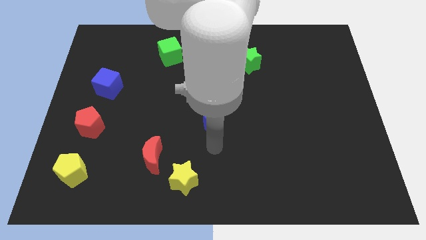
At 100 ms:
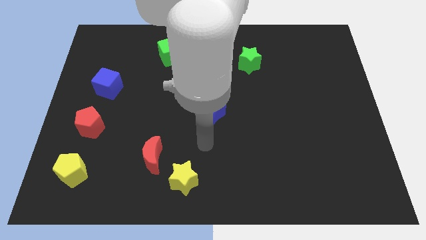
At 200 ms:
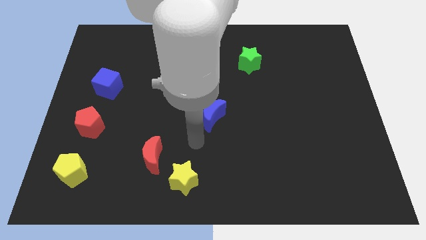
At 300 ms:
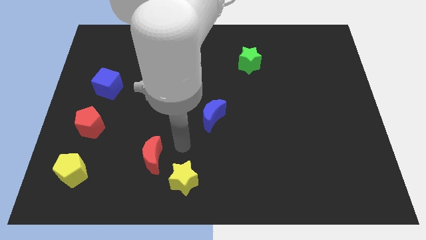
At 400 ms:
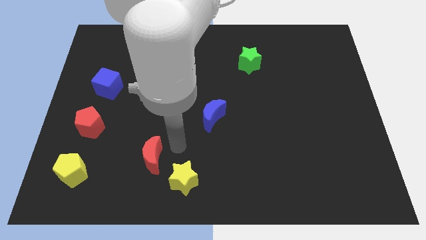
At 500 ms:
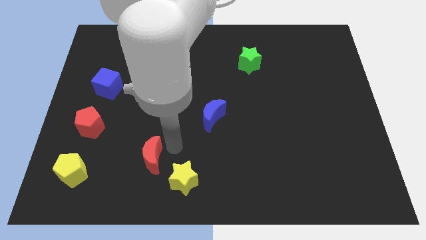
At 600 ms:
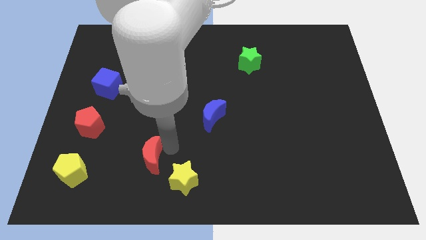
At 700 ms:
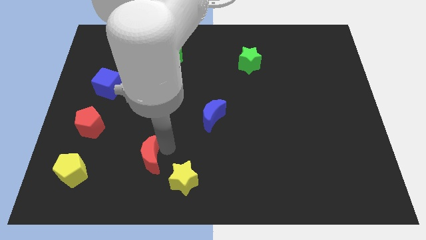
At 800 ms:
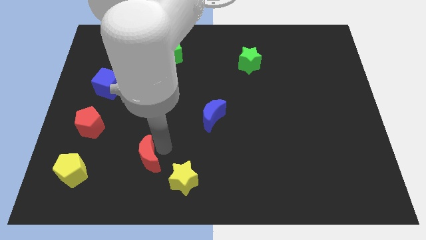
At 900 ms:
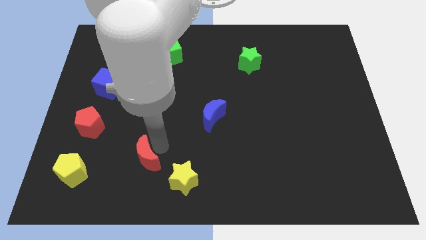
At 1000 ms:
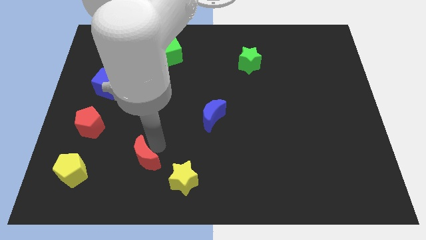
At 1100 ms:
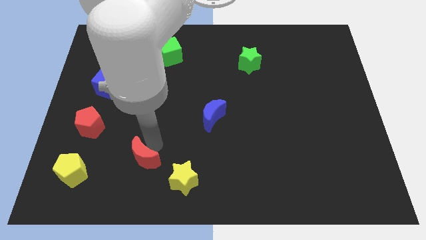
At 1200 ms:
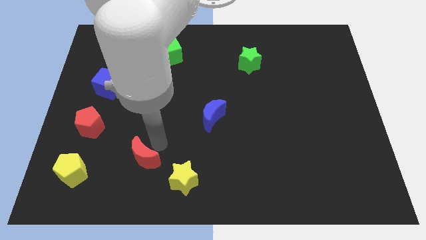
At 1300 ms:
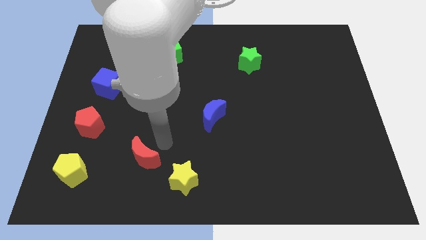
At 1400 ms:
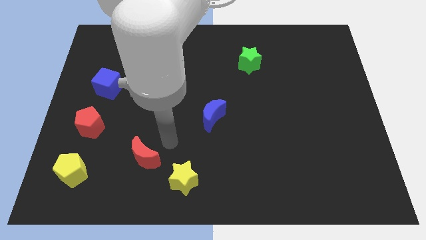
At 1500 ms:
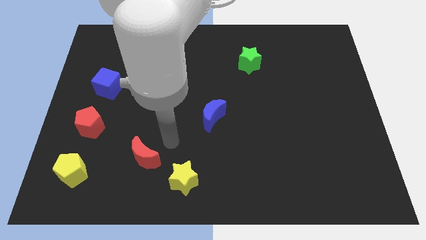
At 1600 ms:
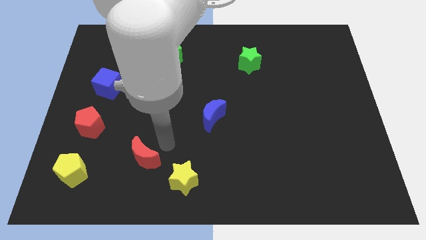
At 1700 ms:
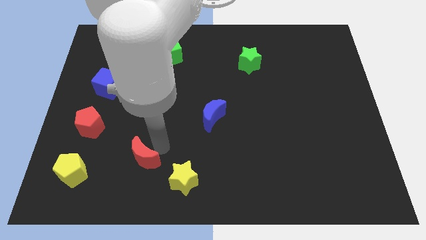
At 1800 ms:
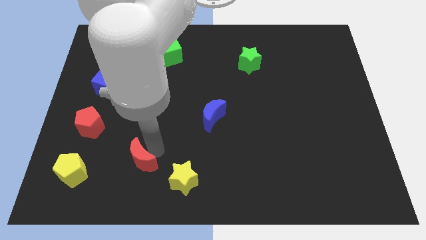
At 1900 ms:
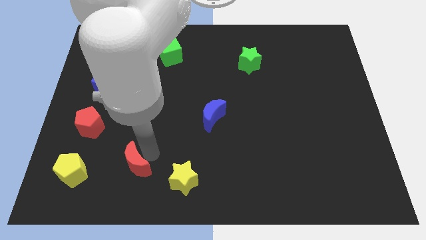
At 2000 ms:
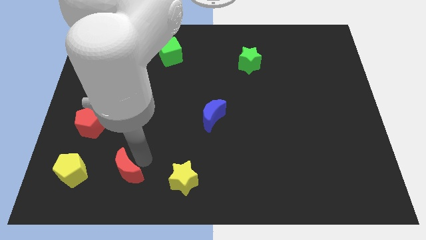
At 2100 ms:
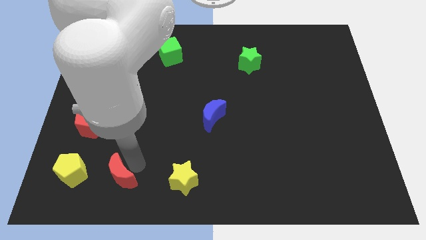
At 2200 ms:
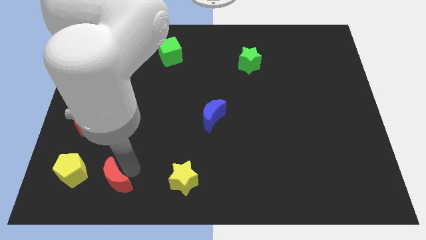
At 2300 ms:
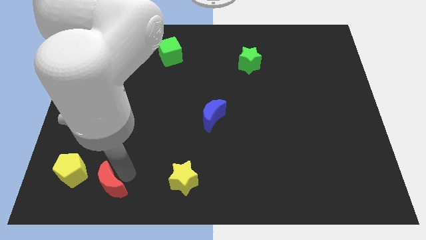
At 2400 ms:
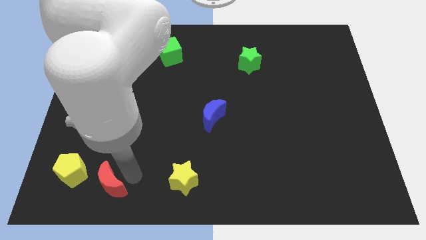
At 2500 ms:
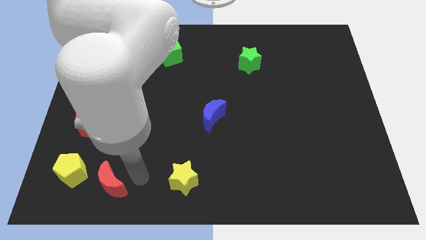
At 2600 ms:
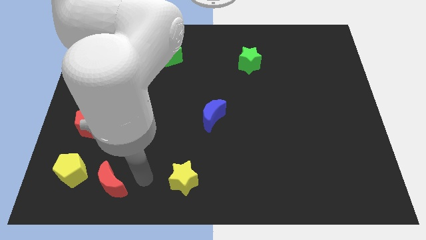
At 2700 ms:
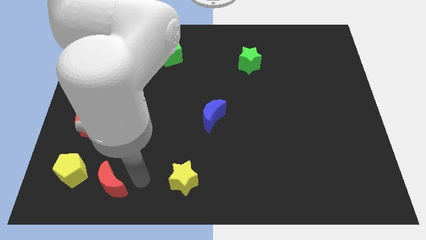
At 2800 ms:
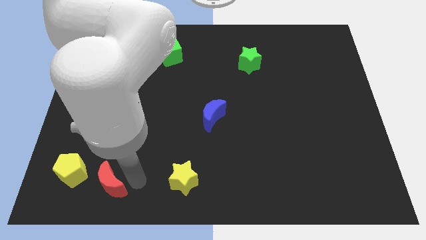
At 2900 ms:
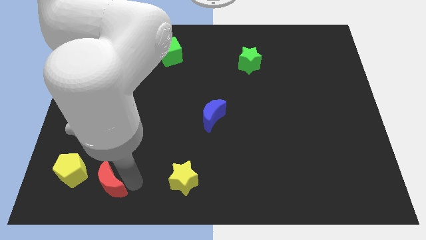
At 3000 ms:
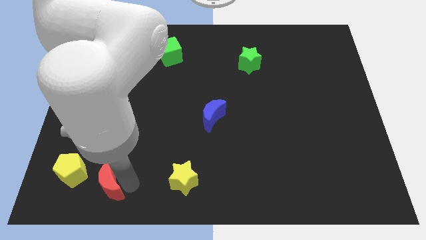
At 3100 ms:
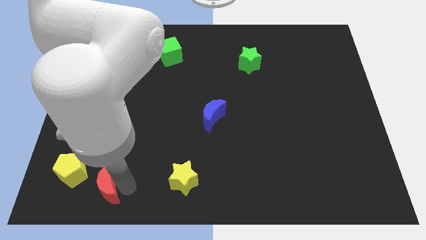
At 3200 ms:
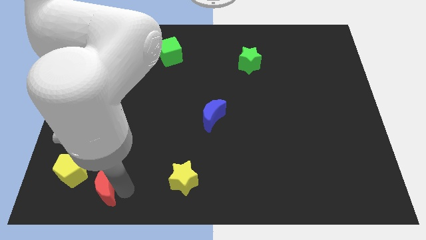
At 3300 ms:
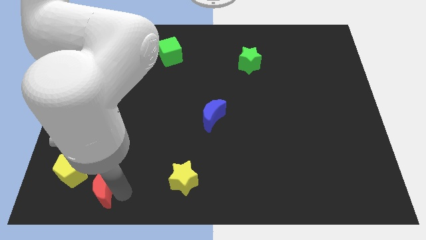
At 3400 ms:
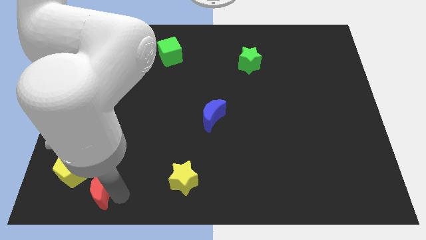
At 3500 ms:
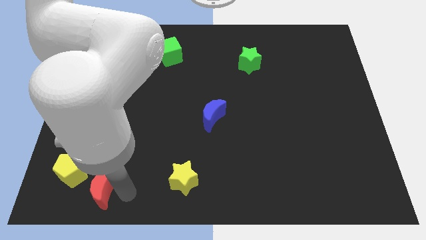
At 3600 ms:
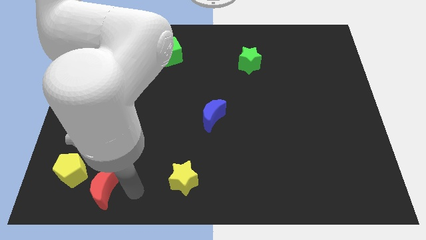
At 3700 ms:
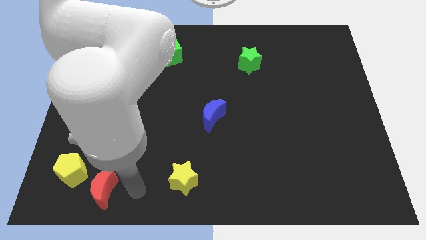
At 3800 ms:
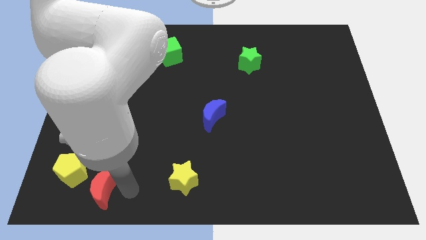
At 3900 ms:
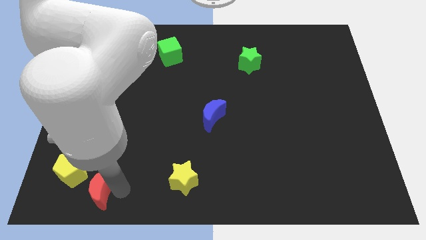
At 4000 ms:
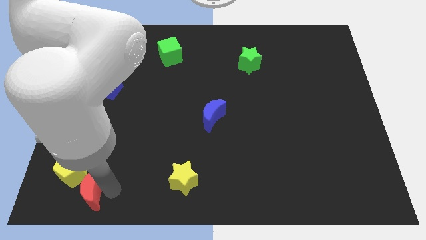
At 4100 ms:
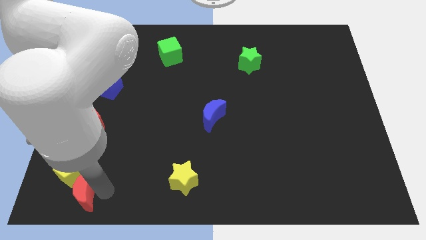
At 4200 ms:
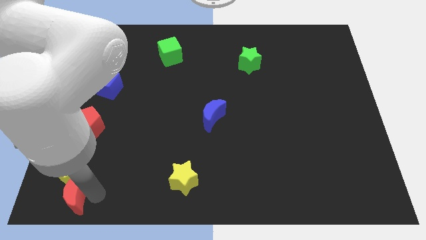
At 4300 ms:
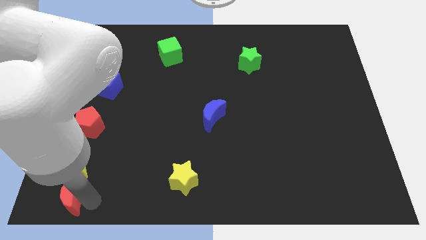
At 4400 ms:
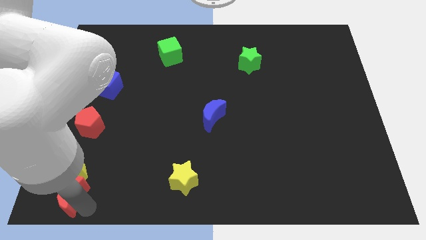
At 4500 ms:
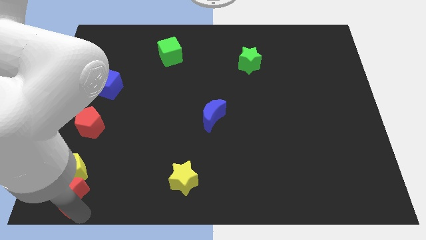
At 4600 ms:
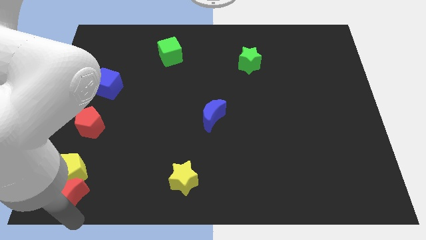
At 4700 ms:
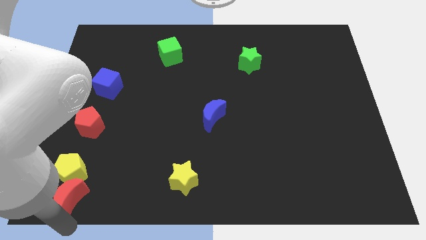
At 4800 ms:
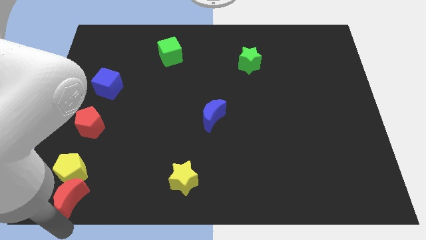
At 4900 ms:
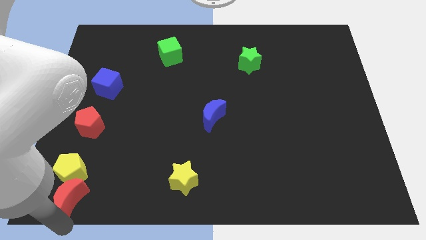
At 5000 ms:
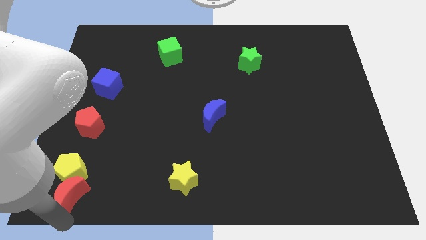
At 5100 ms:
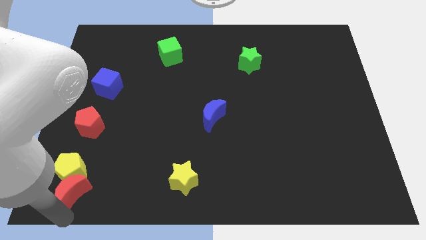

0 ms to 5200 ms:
push the red moon below the red pentagon

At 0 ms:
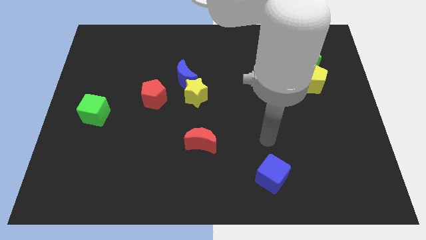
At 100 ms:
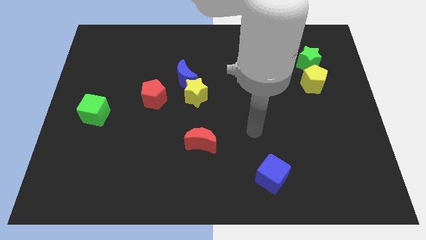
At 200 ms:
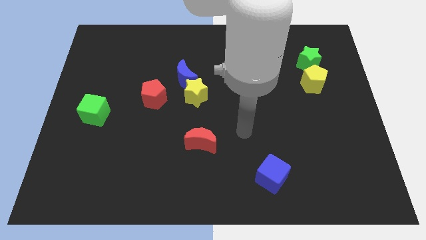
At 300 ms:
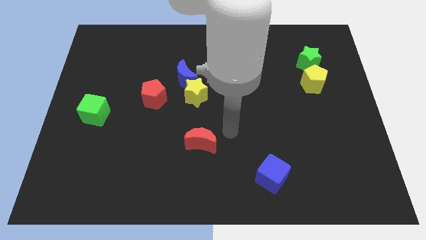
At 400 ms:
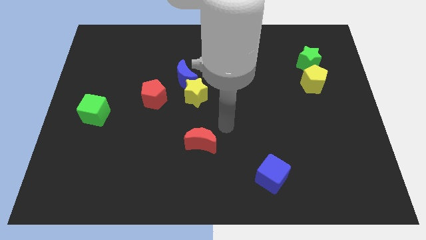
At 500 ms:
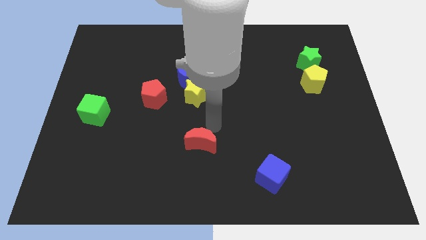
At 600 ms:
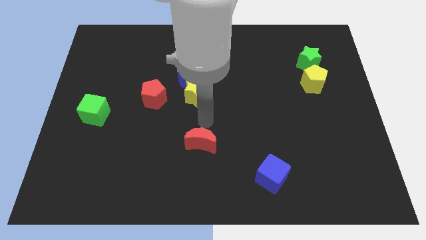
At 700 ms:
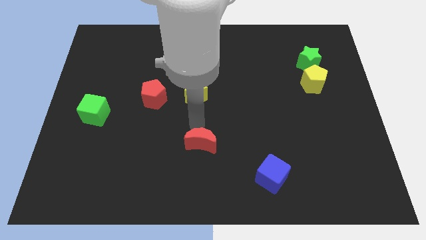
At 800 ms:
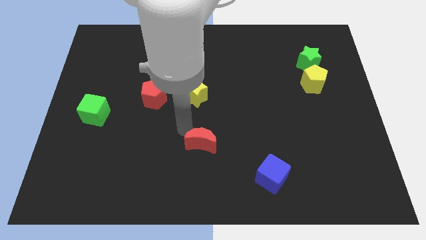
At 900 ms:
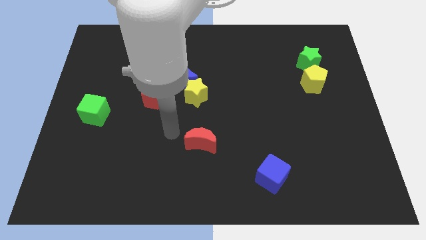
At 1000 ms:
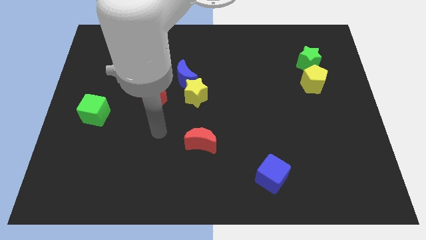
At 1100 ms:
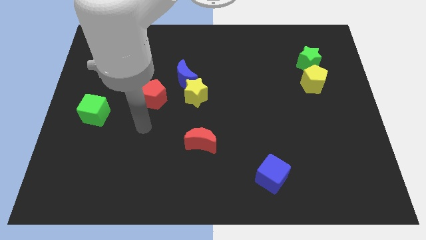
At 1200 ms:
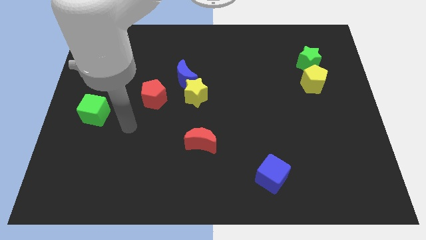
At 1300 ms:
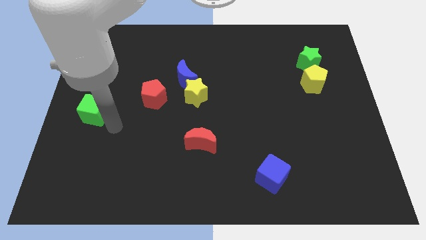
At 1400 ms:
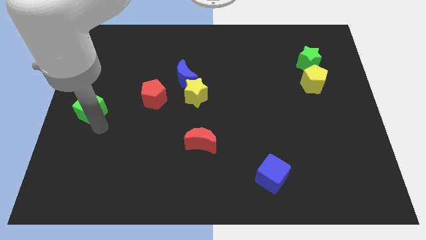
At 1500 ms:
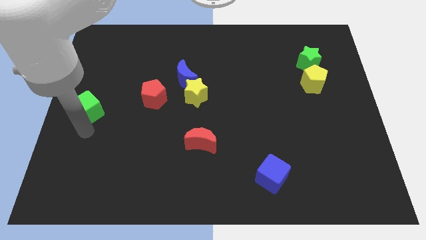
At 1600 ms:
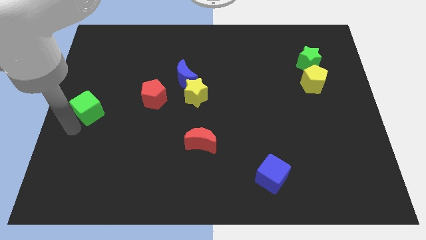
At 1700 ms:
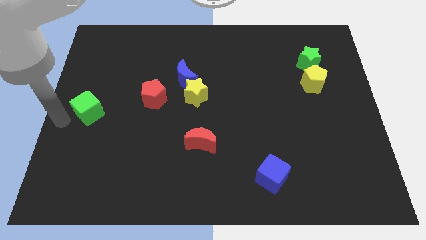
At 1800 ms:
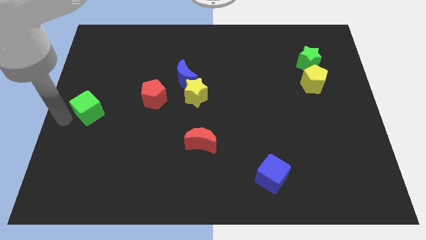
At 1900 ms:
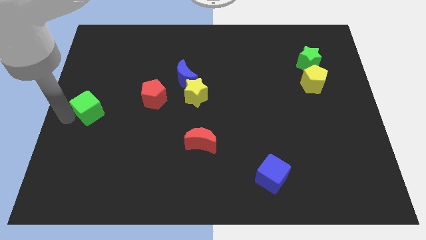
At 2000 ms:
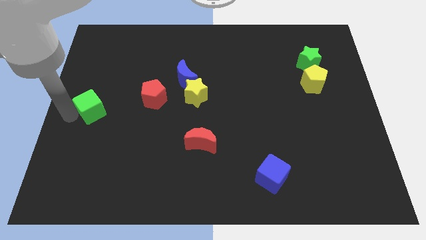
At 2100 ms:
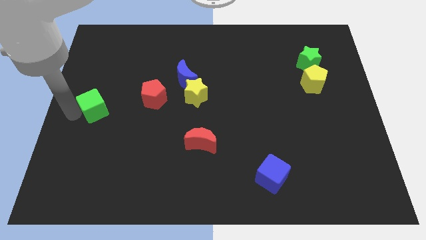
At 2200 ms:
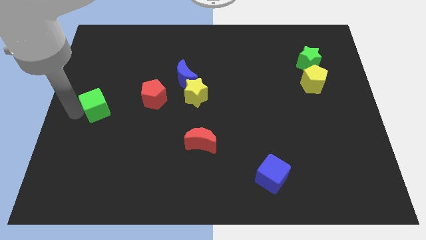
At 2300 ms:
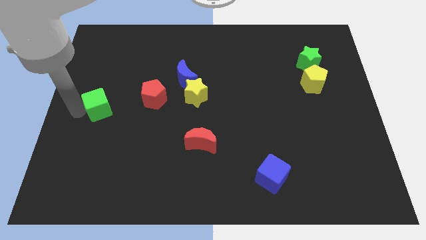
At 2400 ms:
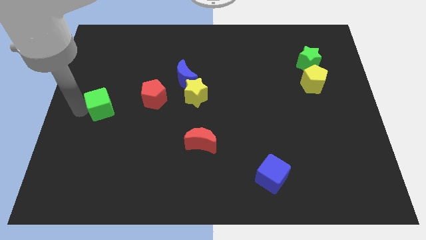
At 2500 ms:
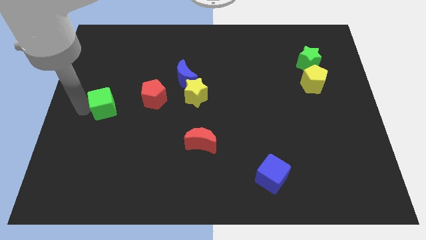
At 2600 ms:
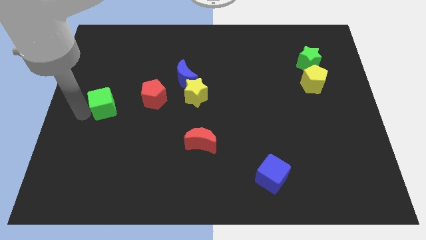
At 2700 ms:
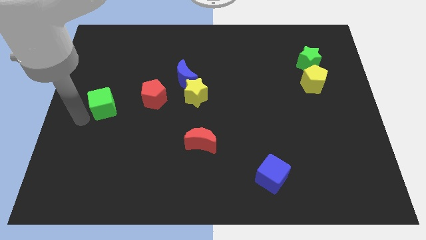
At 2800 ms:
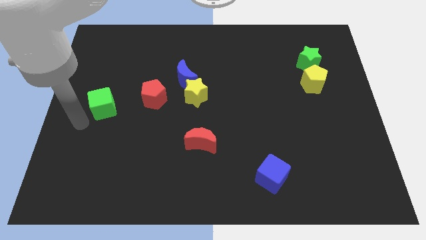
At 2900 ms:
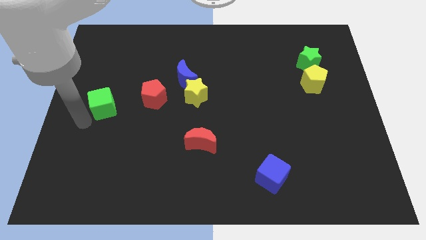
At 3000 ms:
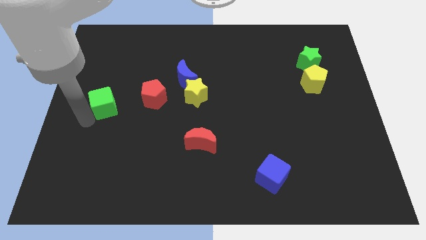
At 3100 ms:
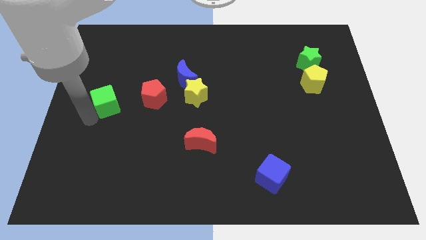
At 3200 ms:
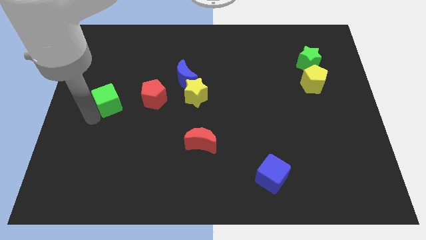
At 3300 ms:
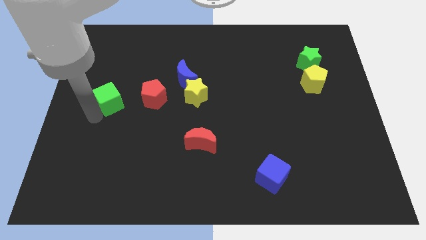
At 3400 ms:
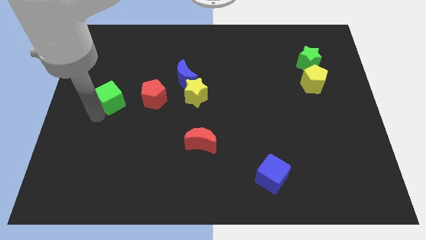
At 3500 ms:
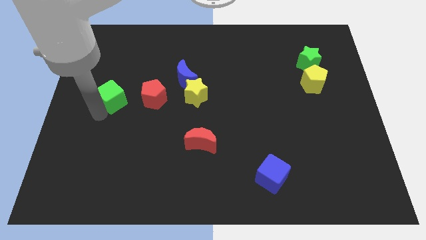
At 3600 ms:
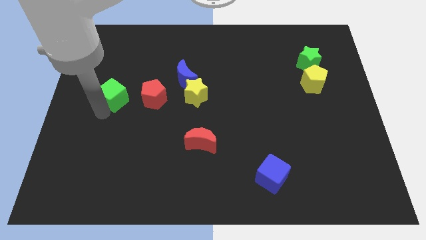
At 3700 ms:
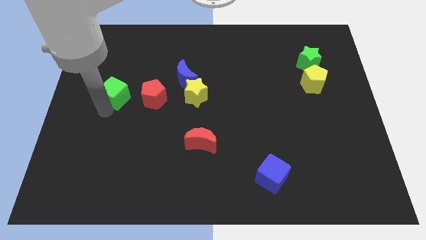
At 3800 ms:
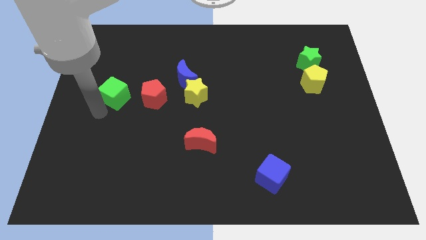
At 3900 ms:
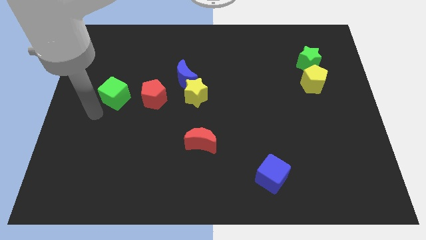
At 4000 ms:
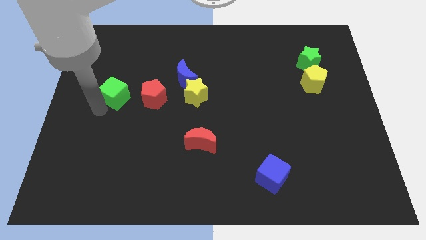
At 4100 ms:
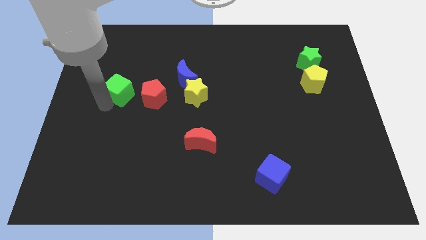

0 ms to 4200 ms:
push the green cube to the top left of the red pentagon
